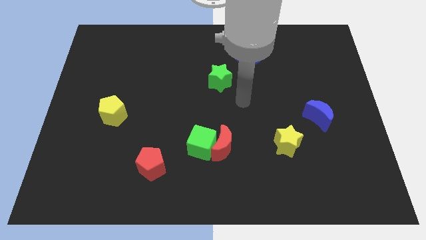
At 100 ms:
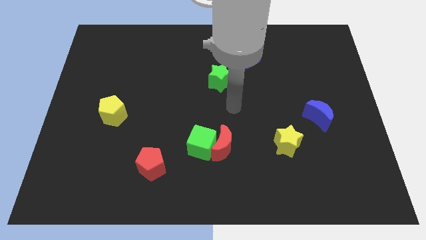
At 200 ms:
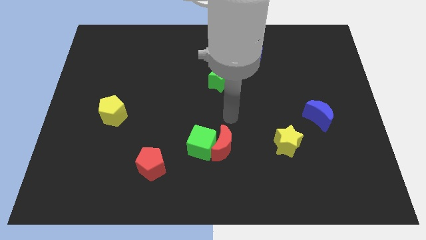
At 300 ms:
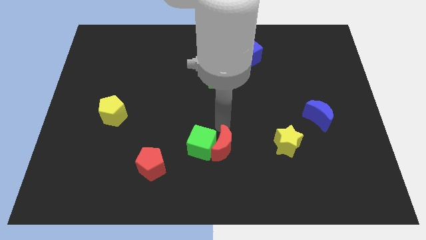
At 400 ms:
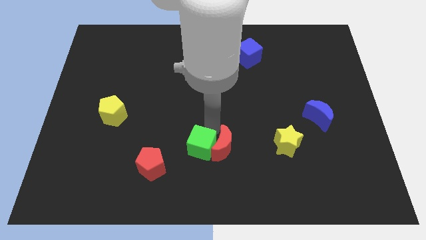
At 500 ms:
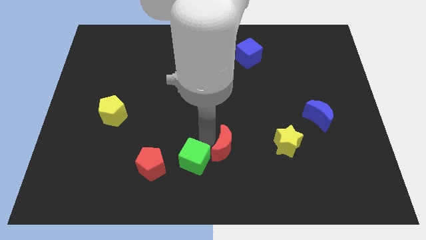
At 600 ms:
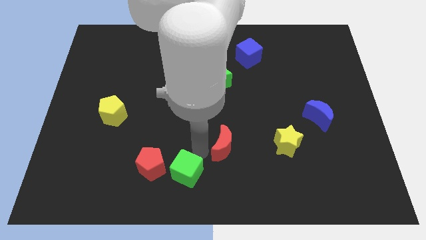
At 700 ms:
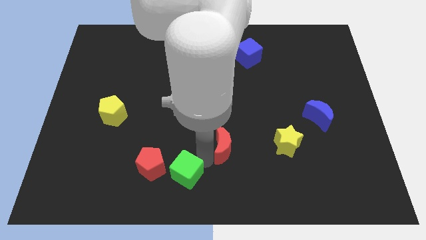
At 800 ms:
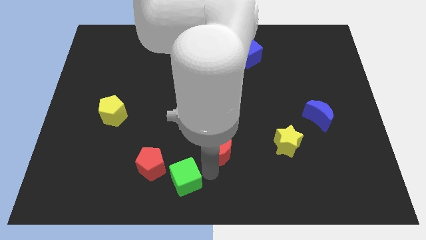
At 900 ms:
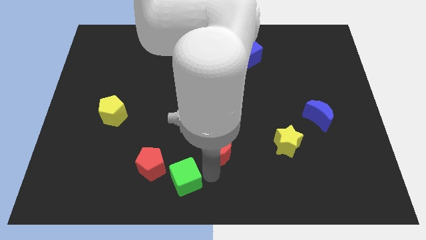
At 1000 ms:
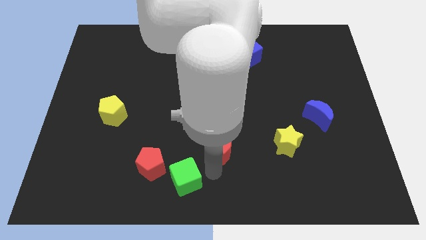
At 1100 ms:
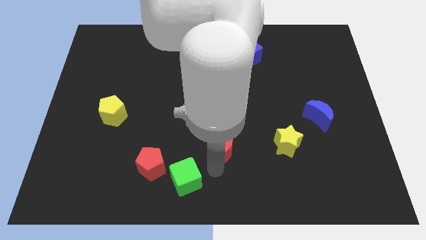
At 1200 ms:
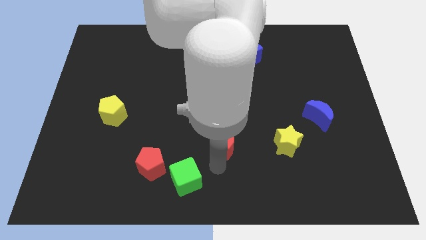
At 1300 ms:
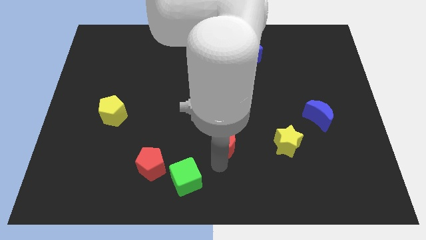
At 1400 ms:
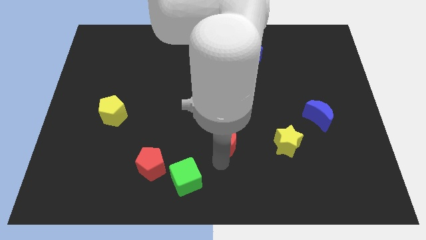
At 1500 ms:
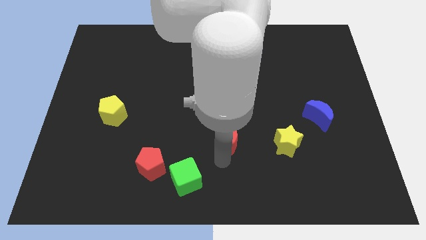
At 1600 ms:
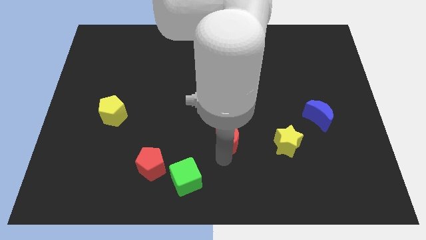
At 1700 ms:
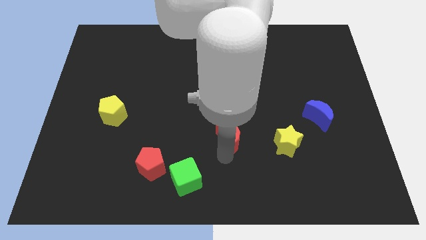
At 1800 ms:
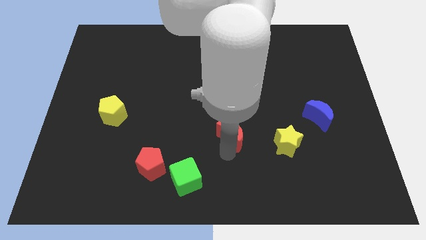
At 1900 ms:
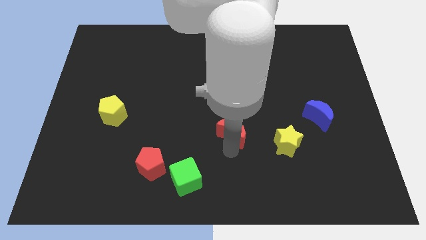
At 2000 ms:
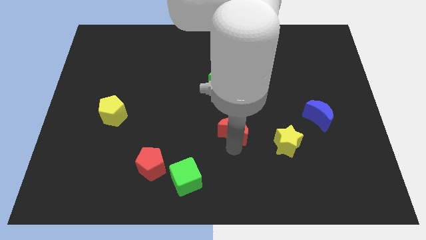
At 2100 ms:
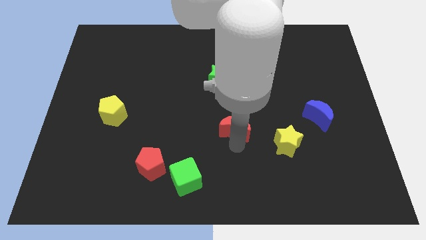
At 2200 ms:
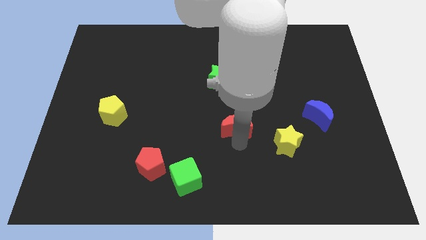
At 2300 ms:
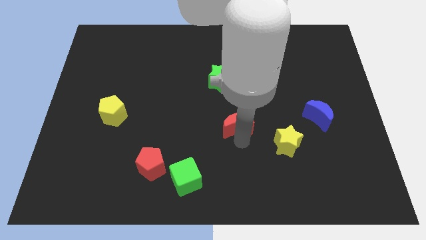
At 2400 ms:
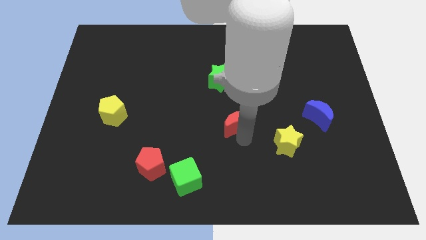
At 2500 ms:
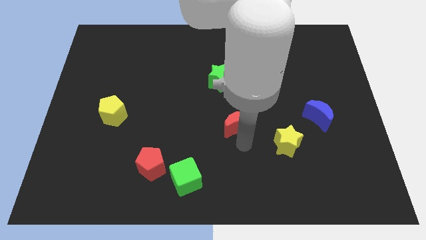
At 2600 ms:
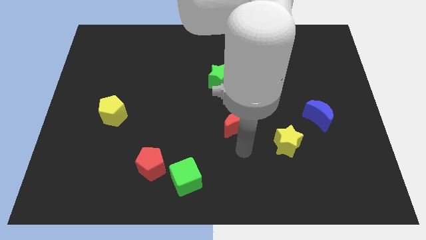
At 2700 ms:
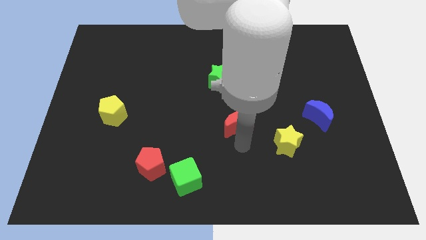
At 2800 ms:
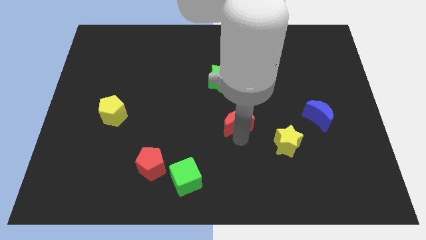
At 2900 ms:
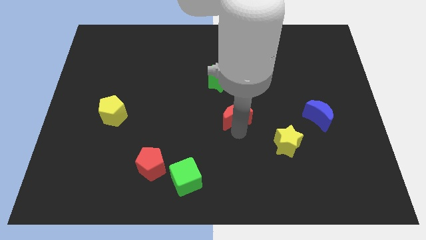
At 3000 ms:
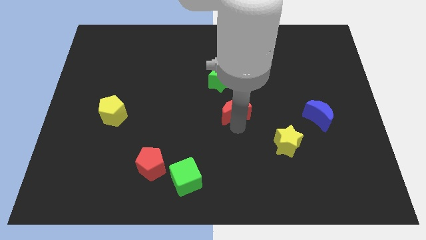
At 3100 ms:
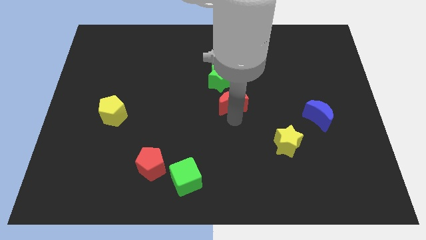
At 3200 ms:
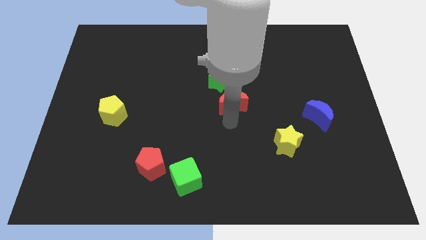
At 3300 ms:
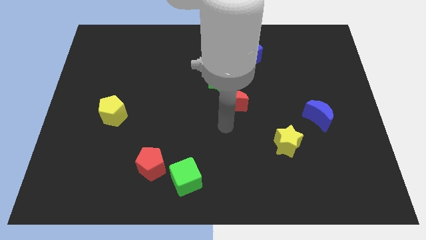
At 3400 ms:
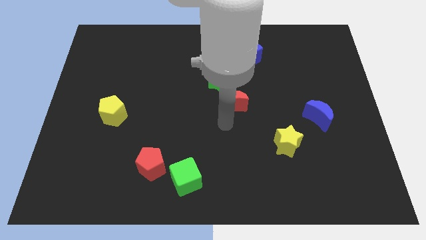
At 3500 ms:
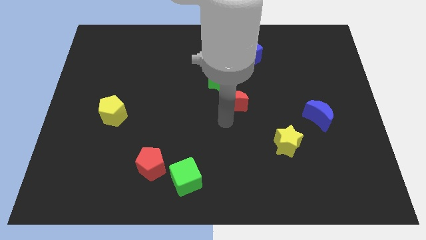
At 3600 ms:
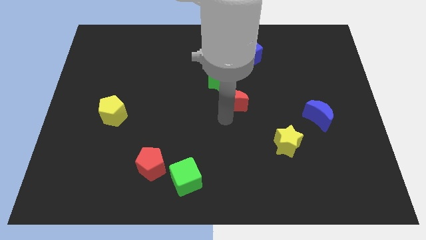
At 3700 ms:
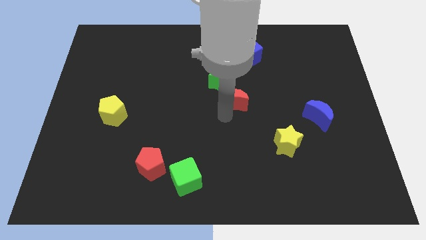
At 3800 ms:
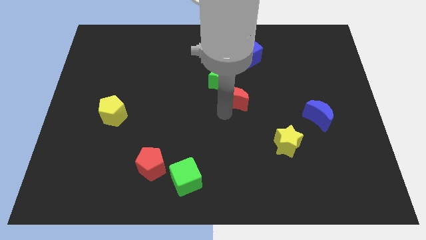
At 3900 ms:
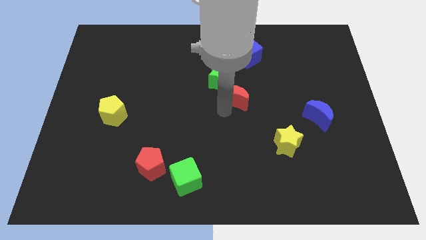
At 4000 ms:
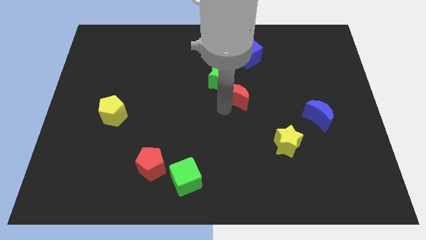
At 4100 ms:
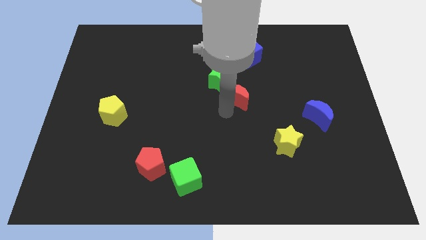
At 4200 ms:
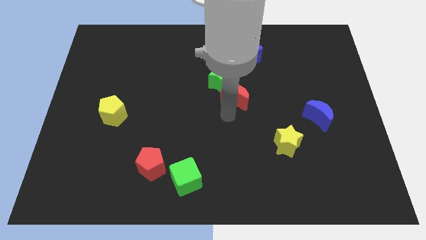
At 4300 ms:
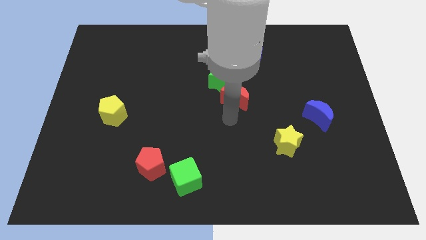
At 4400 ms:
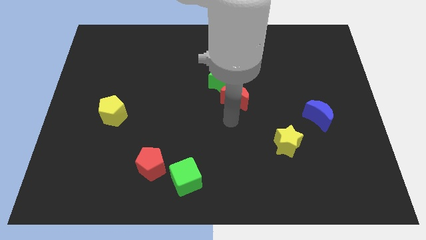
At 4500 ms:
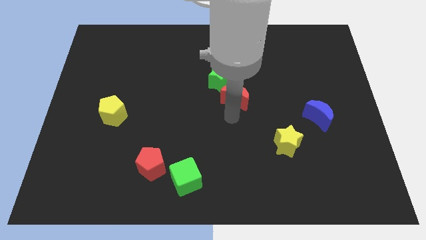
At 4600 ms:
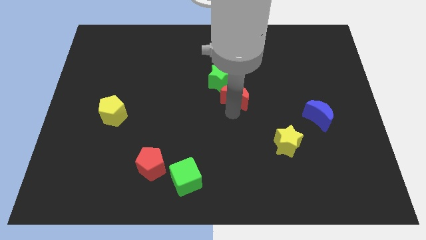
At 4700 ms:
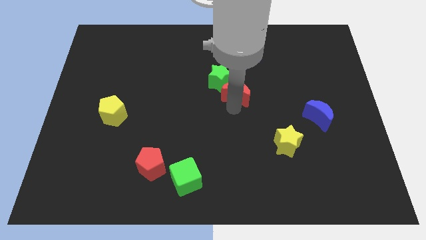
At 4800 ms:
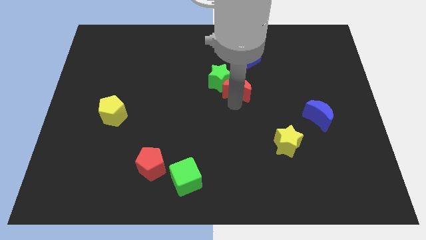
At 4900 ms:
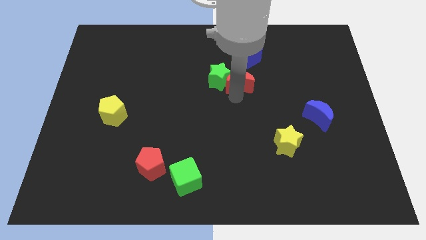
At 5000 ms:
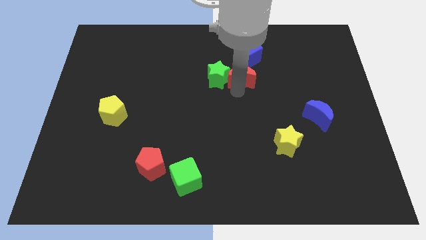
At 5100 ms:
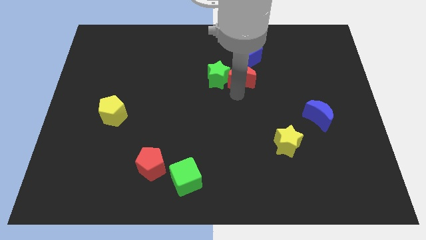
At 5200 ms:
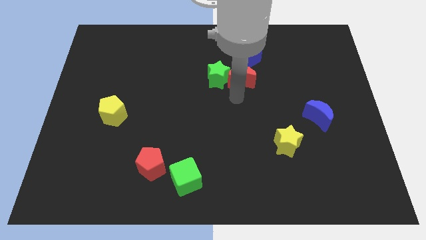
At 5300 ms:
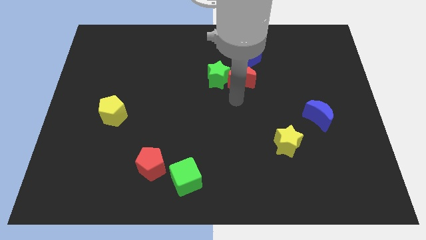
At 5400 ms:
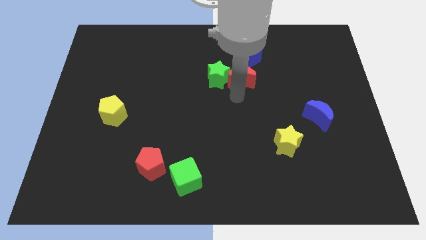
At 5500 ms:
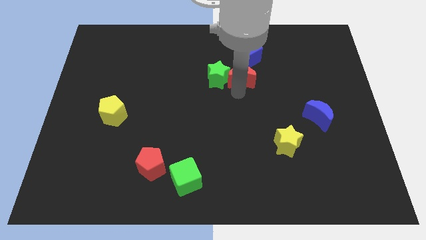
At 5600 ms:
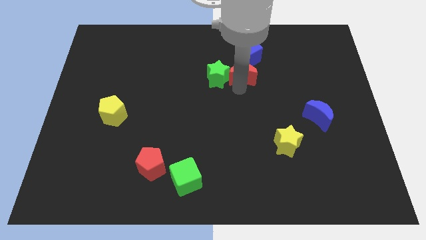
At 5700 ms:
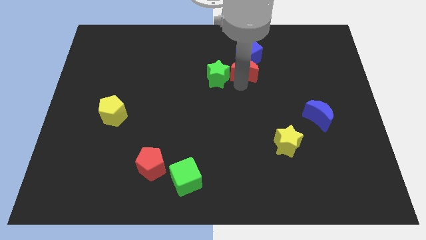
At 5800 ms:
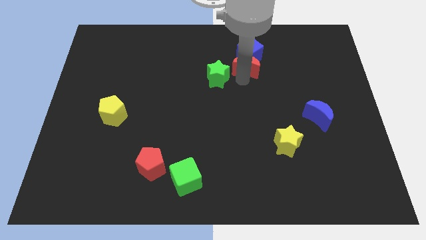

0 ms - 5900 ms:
move the red moon next to the blue cube

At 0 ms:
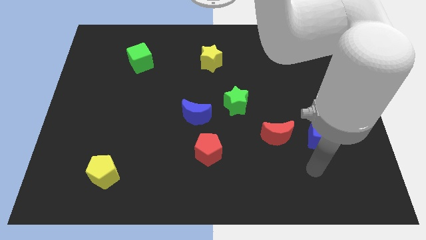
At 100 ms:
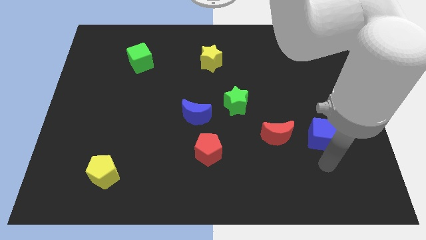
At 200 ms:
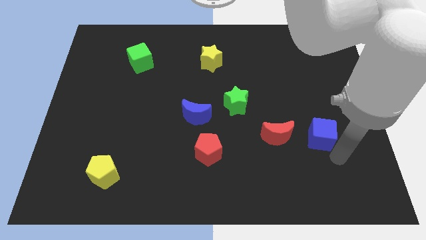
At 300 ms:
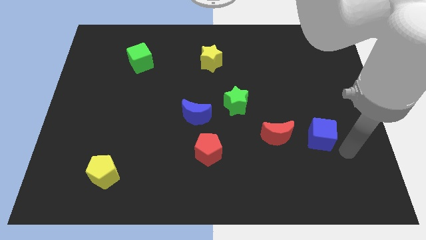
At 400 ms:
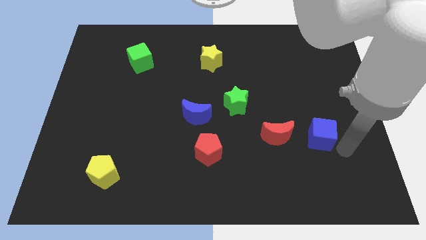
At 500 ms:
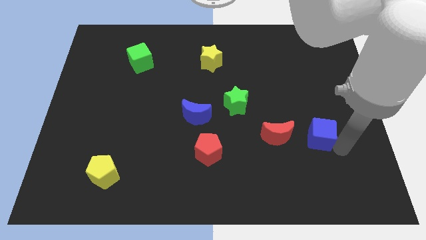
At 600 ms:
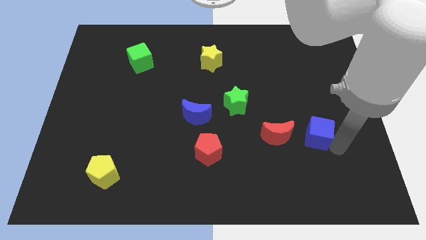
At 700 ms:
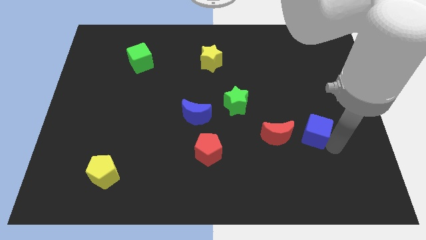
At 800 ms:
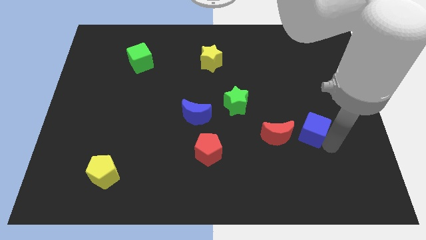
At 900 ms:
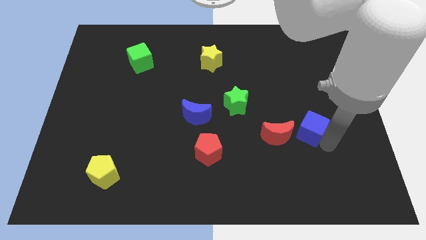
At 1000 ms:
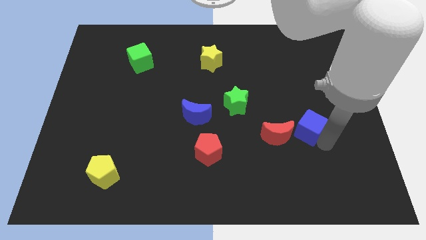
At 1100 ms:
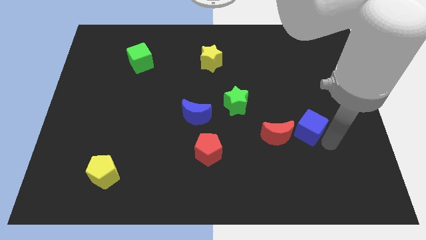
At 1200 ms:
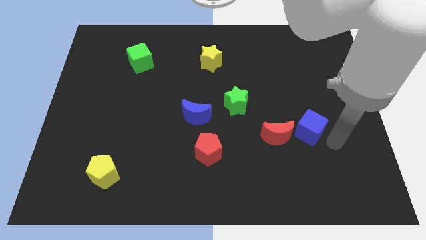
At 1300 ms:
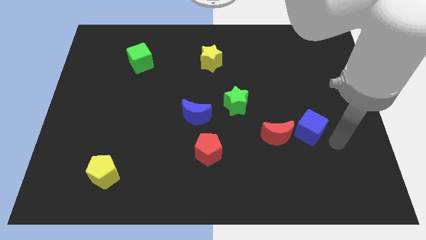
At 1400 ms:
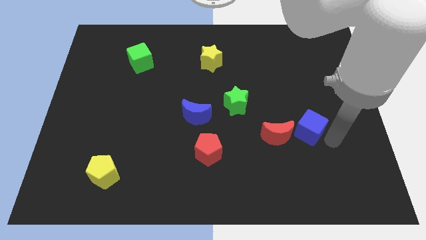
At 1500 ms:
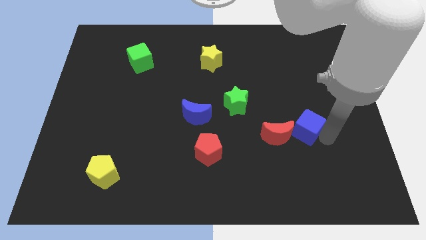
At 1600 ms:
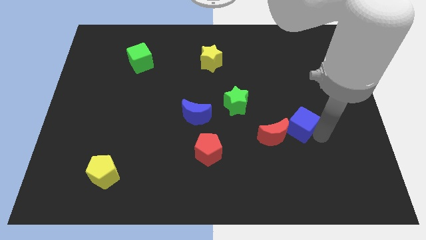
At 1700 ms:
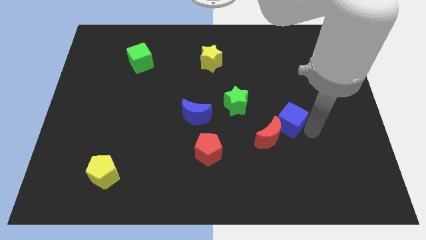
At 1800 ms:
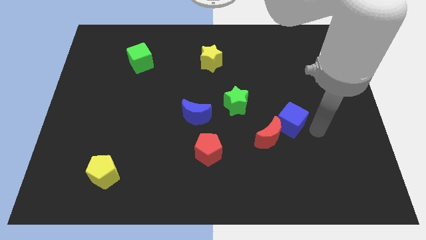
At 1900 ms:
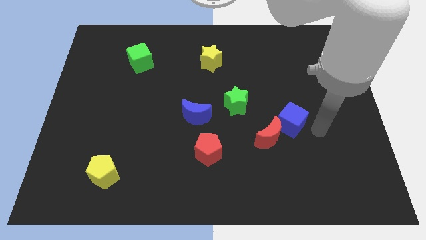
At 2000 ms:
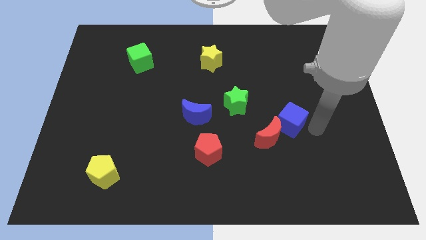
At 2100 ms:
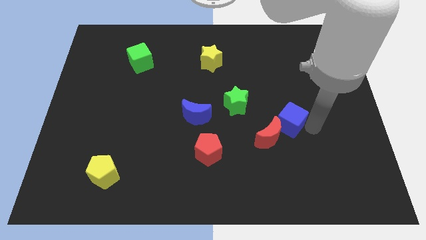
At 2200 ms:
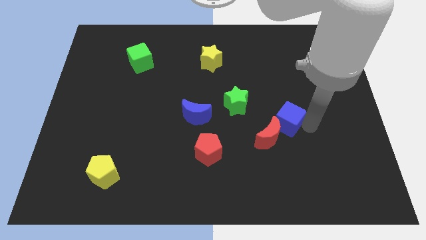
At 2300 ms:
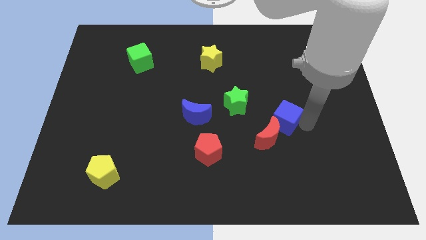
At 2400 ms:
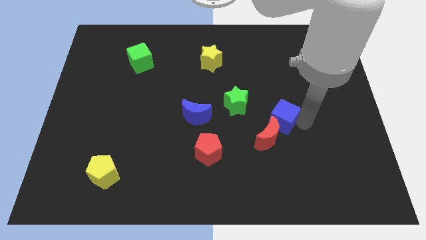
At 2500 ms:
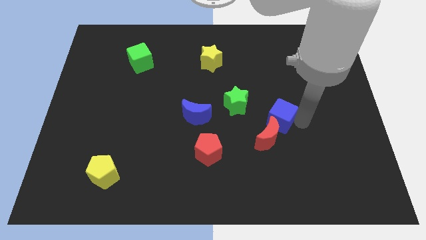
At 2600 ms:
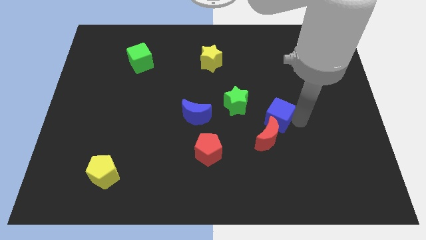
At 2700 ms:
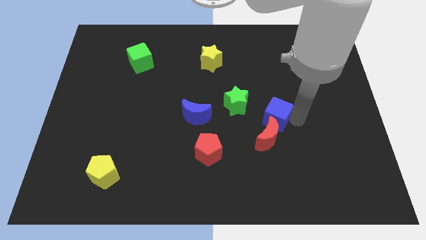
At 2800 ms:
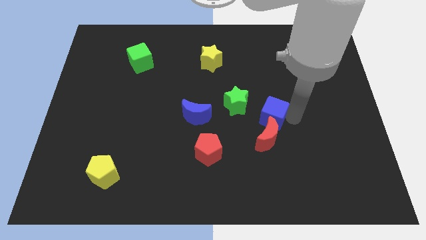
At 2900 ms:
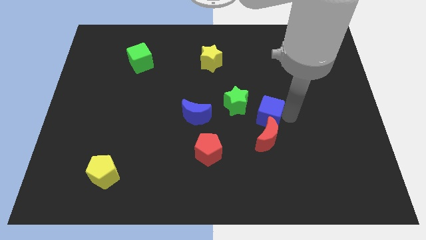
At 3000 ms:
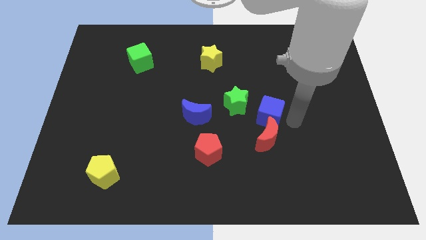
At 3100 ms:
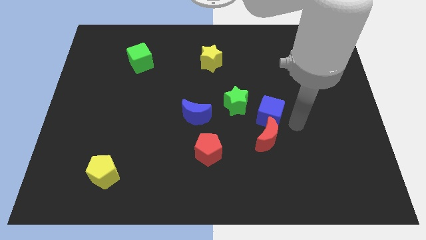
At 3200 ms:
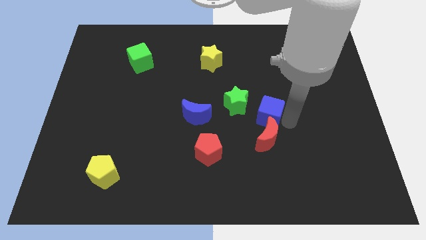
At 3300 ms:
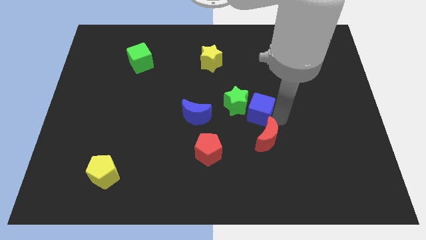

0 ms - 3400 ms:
put the blue cube towards the green star
